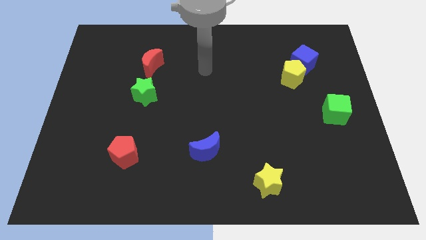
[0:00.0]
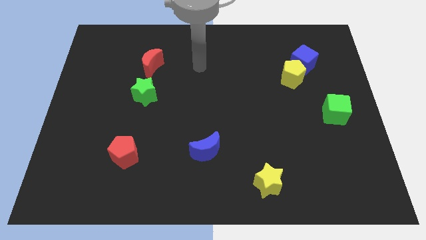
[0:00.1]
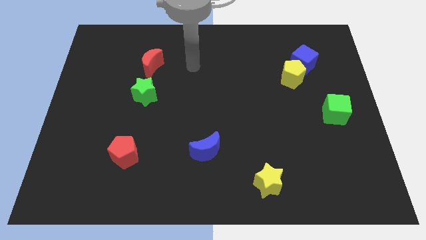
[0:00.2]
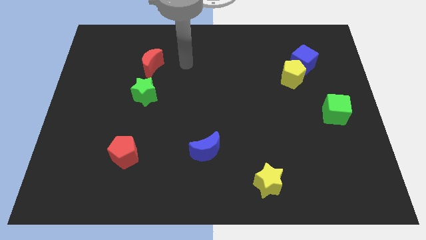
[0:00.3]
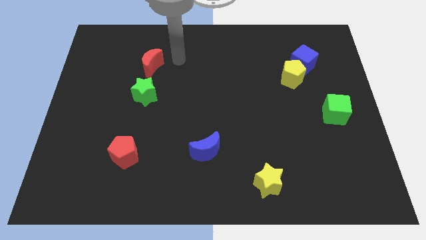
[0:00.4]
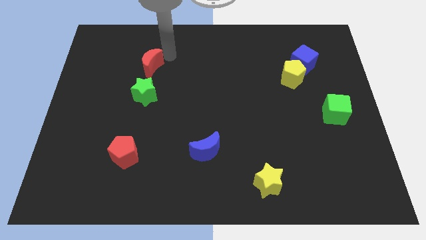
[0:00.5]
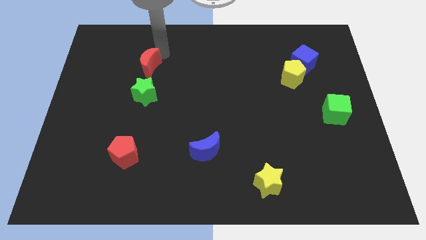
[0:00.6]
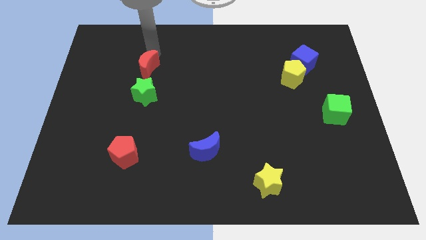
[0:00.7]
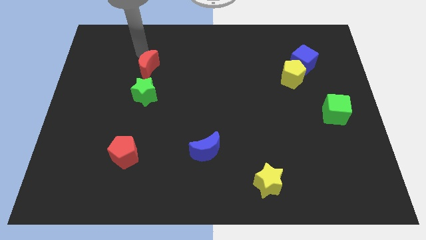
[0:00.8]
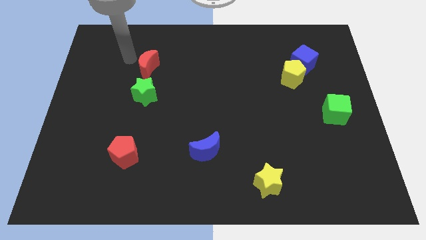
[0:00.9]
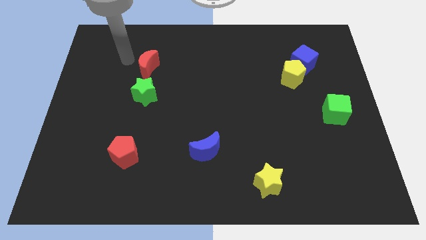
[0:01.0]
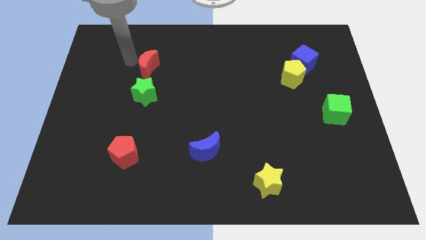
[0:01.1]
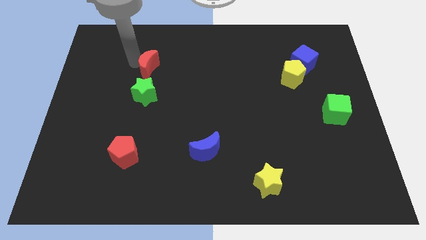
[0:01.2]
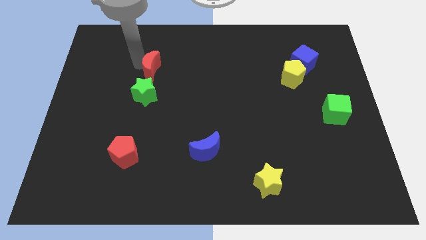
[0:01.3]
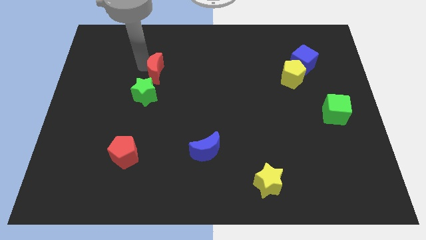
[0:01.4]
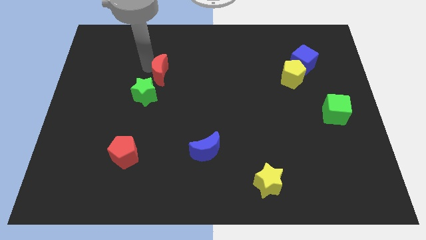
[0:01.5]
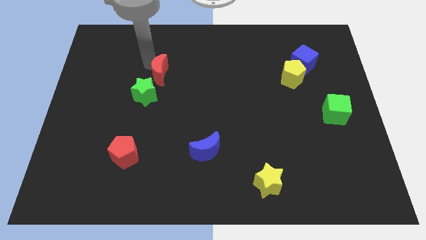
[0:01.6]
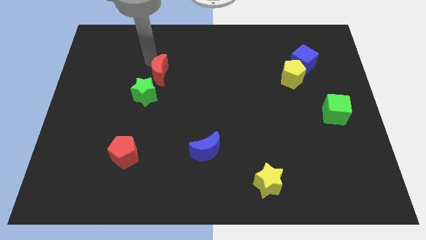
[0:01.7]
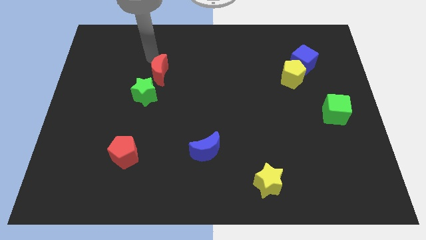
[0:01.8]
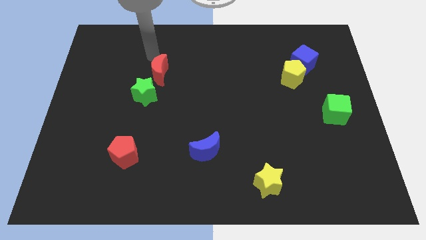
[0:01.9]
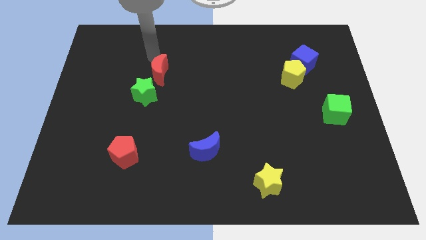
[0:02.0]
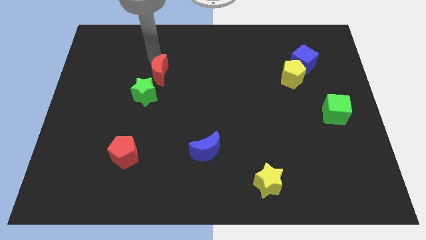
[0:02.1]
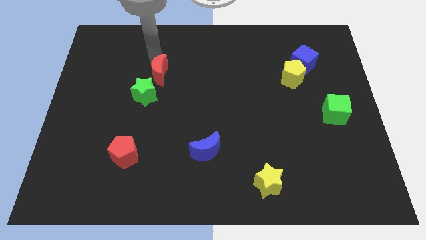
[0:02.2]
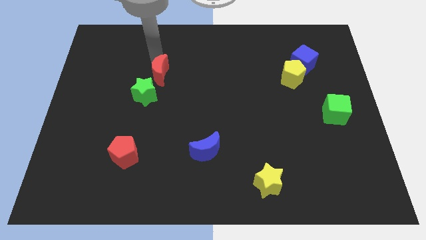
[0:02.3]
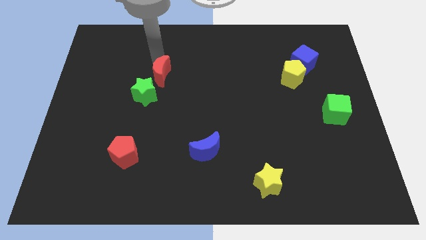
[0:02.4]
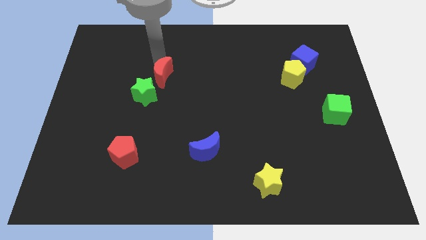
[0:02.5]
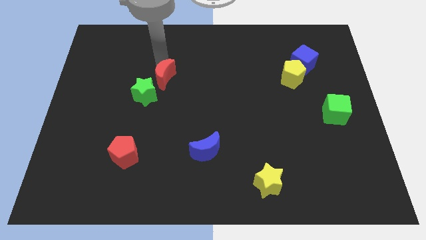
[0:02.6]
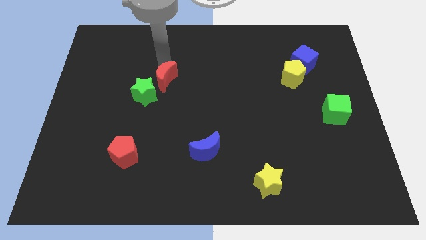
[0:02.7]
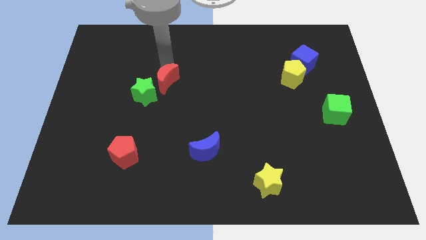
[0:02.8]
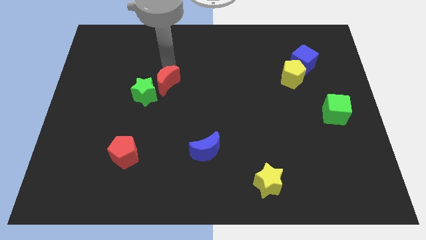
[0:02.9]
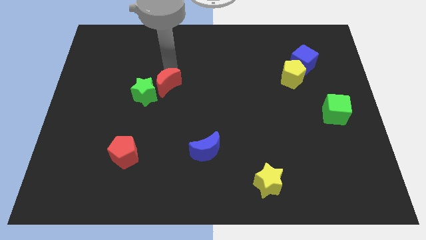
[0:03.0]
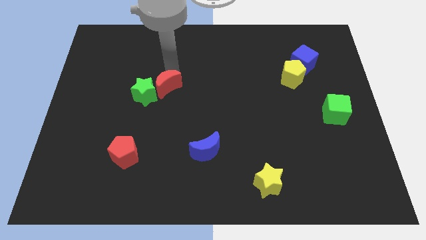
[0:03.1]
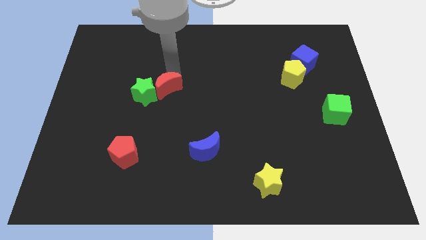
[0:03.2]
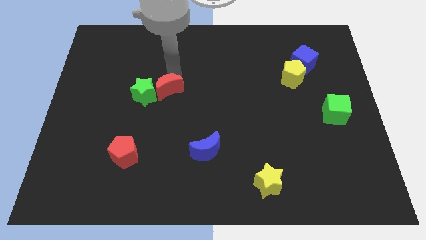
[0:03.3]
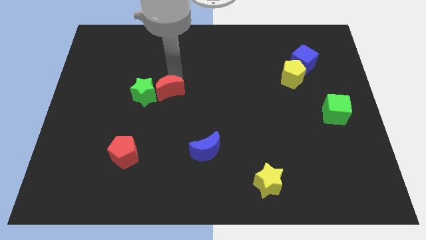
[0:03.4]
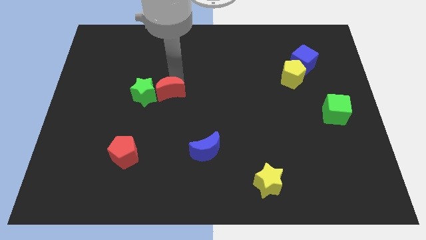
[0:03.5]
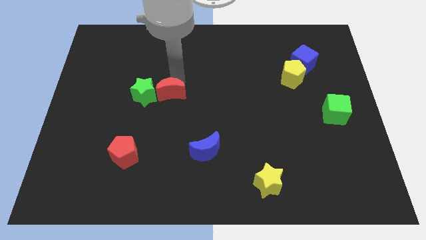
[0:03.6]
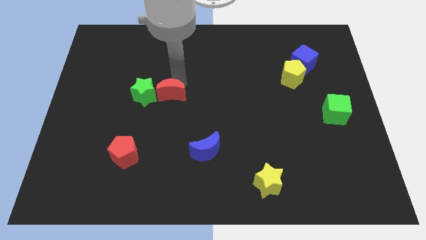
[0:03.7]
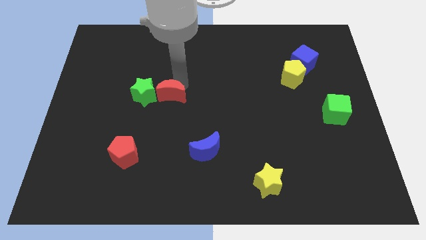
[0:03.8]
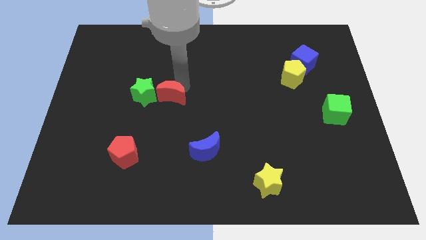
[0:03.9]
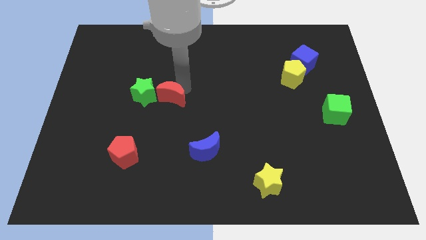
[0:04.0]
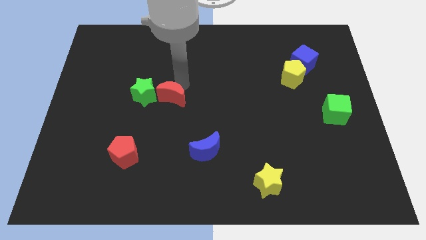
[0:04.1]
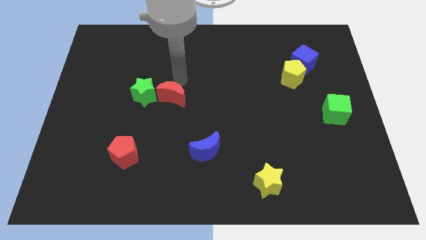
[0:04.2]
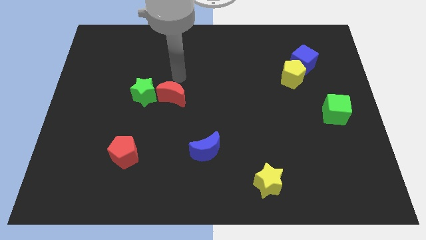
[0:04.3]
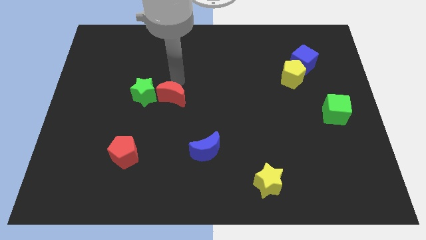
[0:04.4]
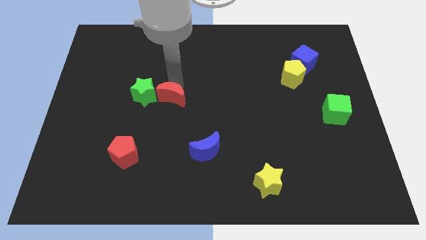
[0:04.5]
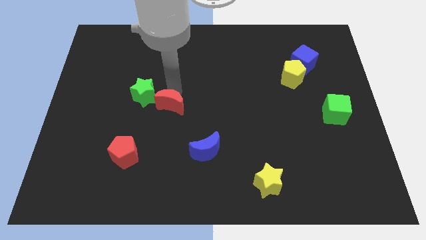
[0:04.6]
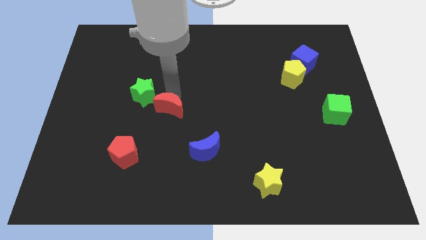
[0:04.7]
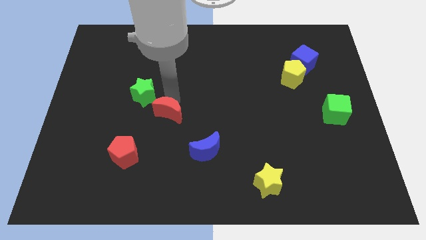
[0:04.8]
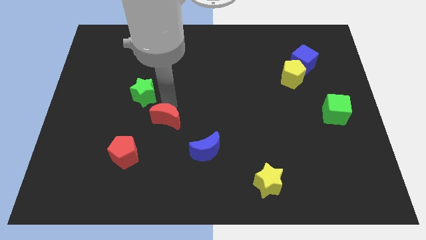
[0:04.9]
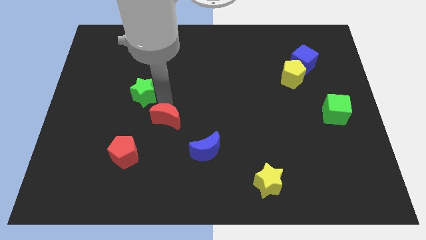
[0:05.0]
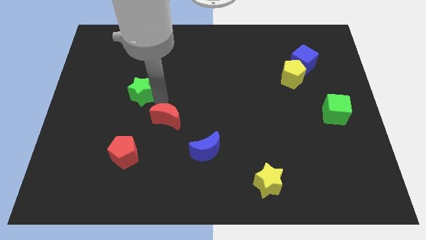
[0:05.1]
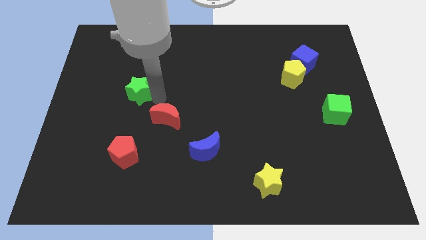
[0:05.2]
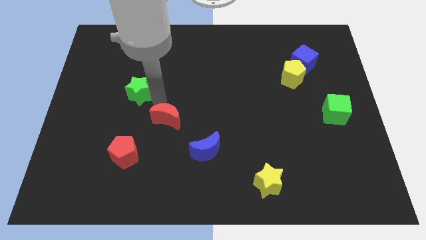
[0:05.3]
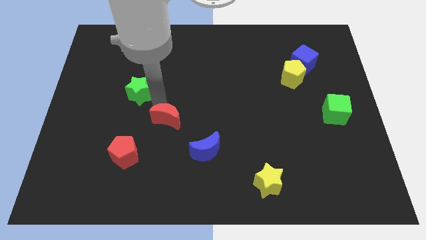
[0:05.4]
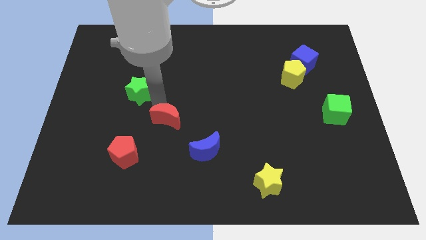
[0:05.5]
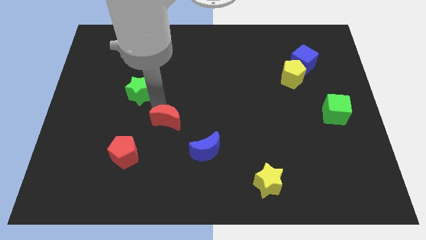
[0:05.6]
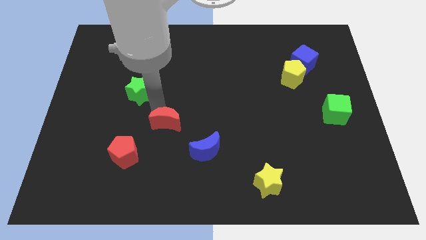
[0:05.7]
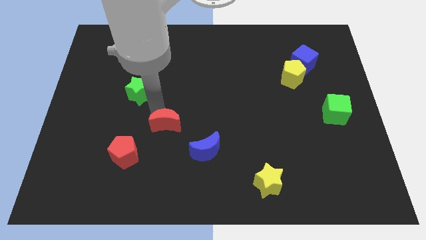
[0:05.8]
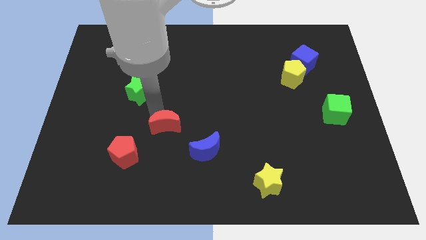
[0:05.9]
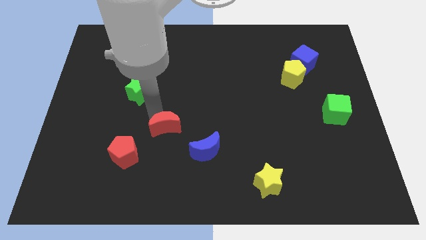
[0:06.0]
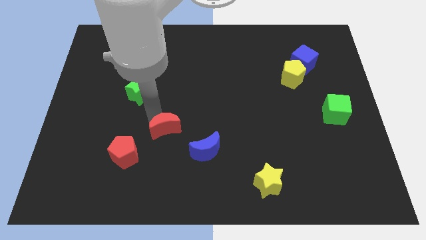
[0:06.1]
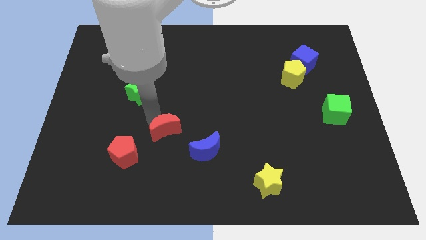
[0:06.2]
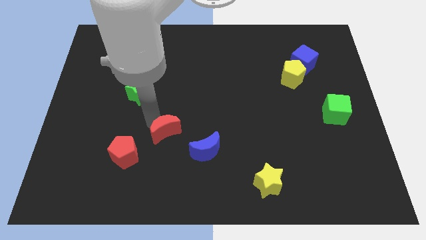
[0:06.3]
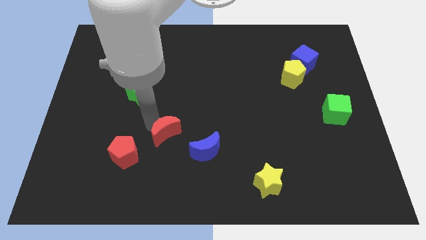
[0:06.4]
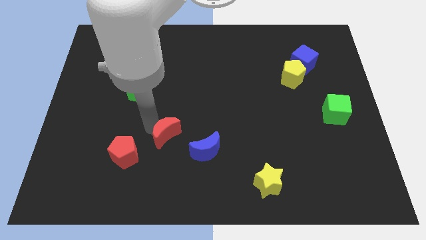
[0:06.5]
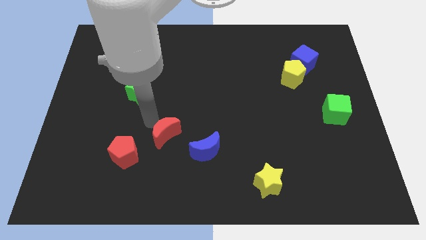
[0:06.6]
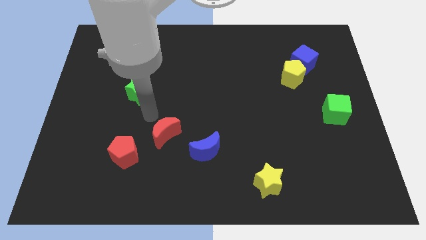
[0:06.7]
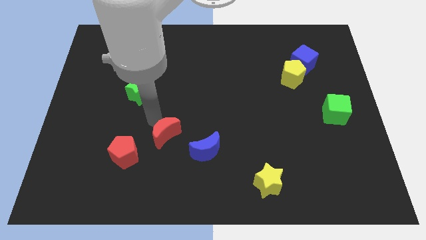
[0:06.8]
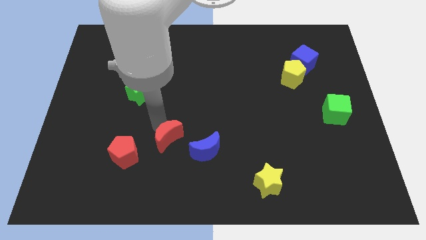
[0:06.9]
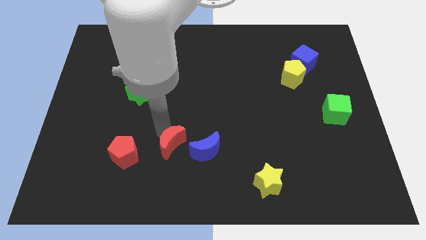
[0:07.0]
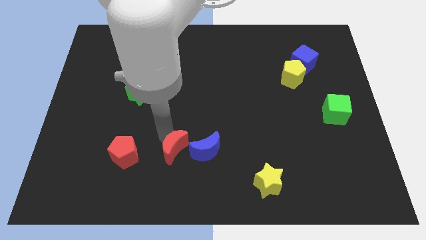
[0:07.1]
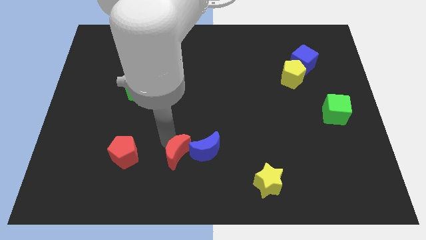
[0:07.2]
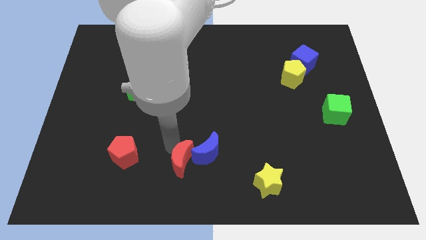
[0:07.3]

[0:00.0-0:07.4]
slide the red moon to the bottom
